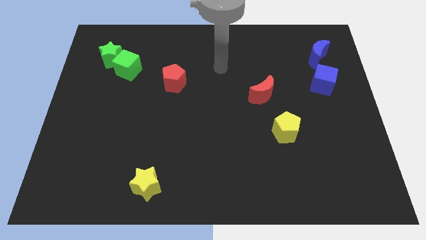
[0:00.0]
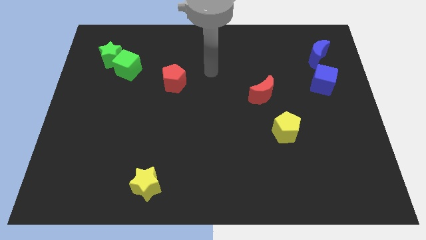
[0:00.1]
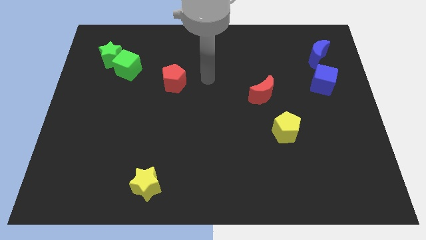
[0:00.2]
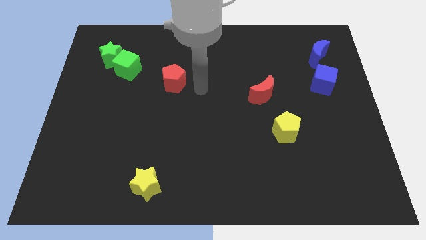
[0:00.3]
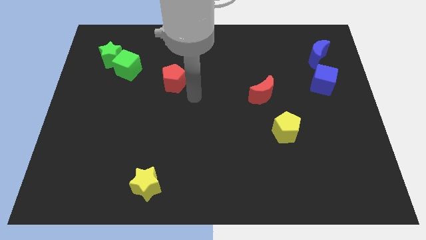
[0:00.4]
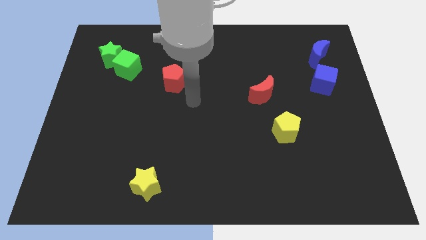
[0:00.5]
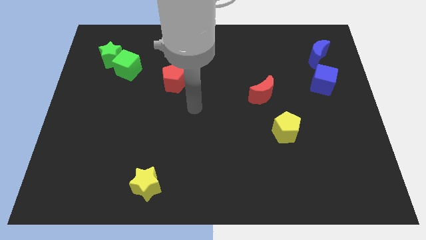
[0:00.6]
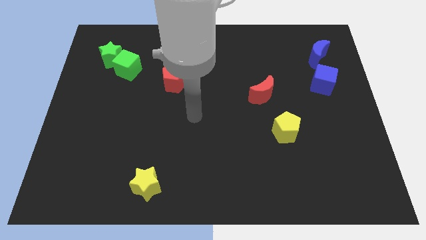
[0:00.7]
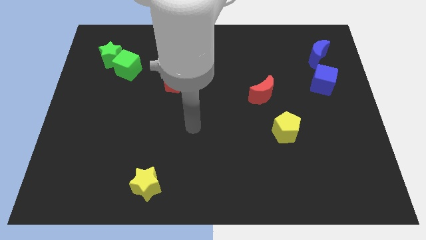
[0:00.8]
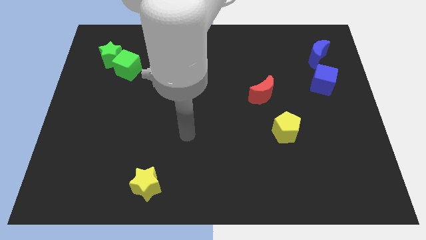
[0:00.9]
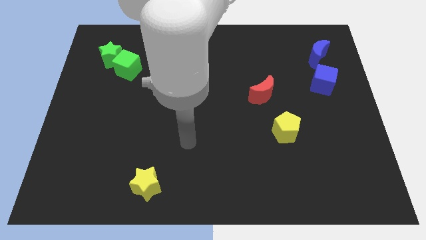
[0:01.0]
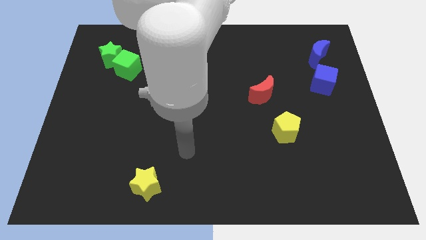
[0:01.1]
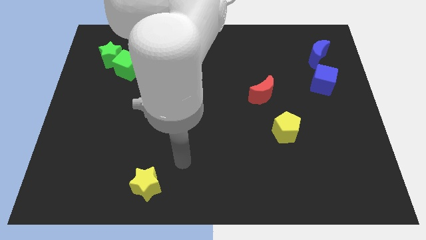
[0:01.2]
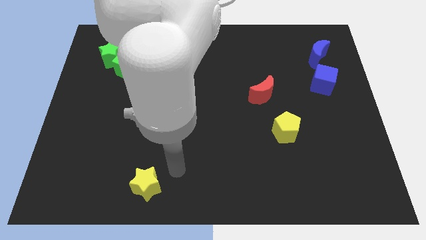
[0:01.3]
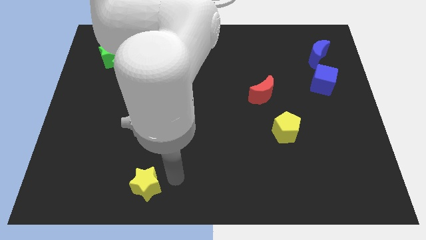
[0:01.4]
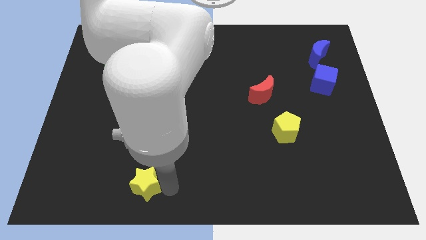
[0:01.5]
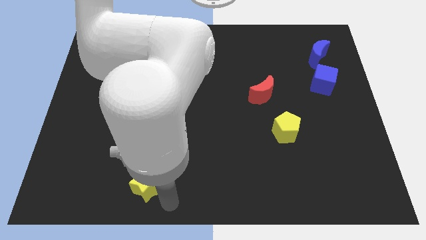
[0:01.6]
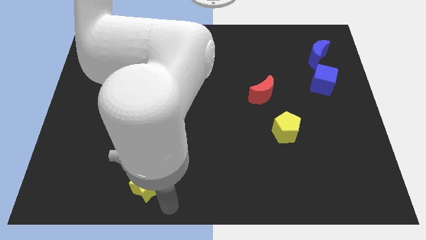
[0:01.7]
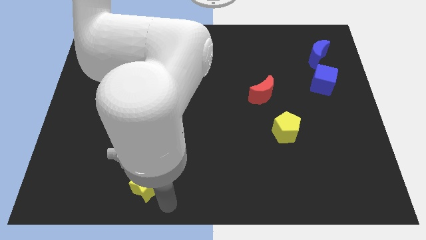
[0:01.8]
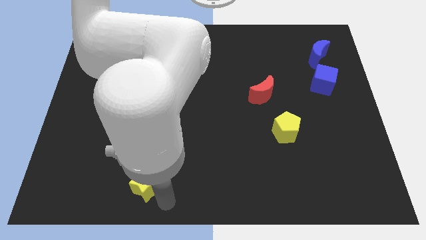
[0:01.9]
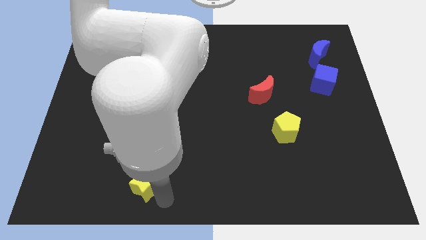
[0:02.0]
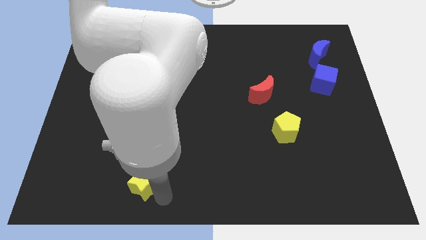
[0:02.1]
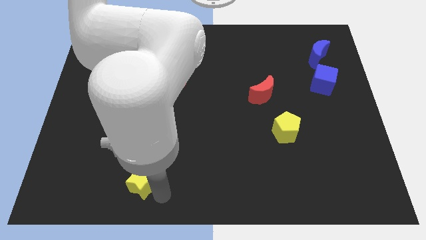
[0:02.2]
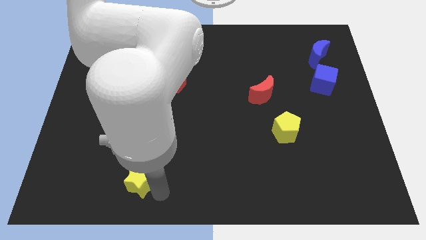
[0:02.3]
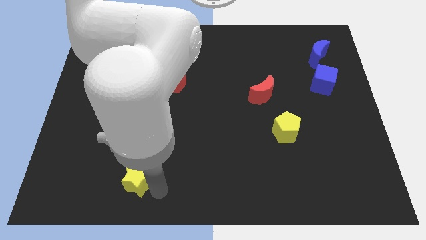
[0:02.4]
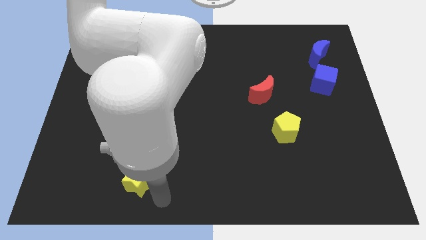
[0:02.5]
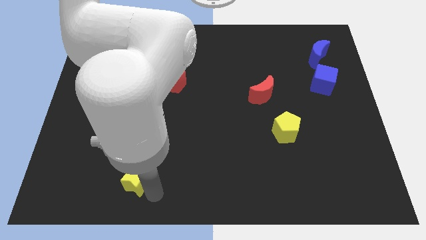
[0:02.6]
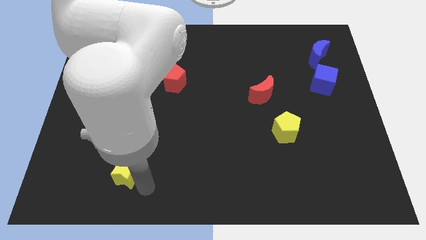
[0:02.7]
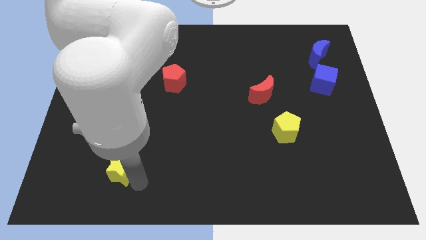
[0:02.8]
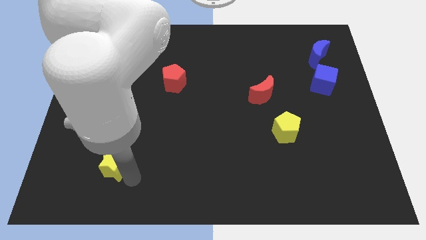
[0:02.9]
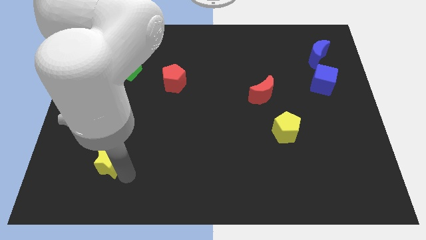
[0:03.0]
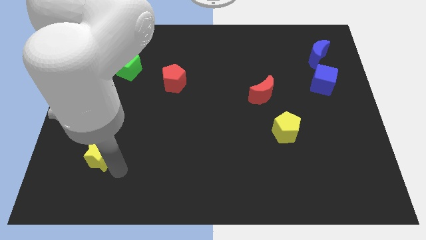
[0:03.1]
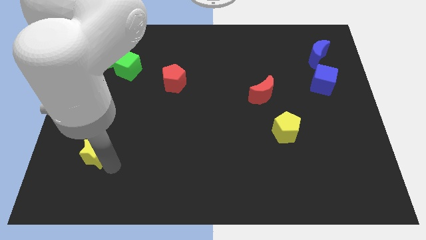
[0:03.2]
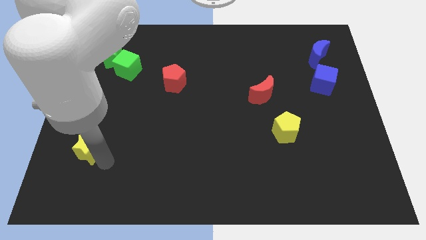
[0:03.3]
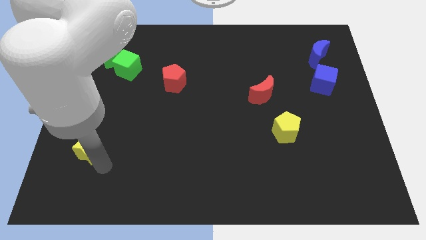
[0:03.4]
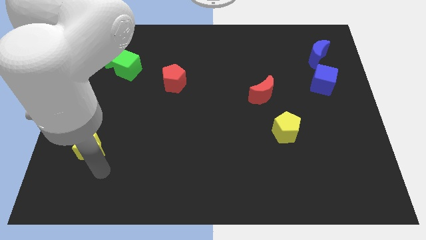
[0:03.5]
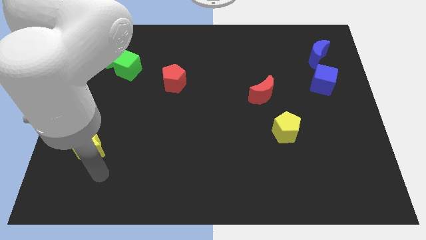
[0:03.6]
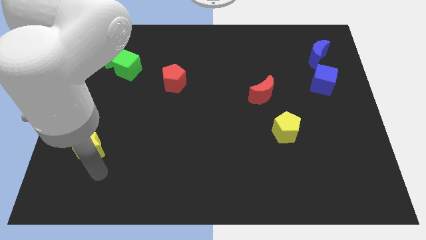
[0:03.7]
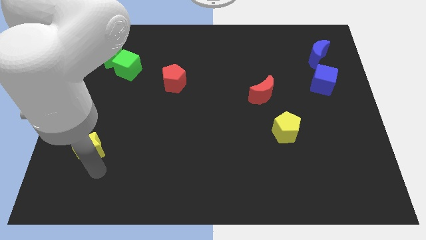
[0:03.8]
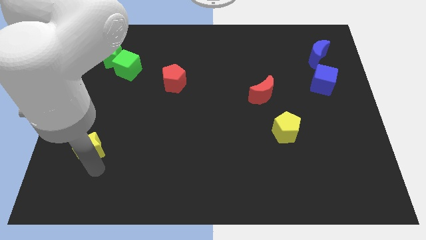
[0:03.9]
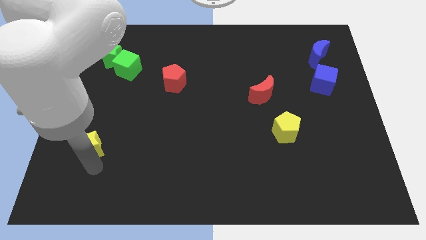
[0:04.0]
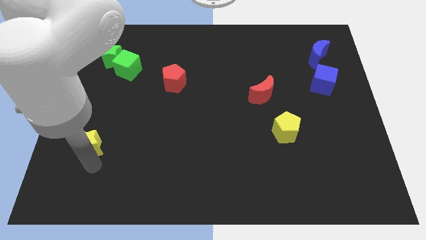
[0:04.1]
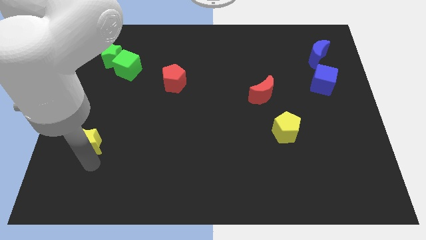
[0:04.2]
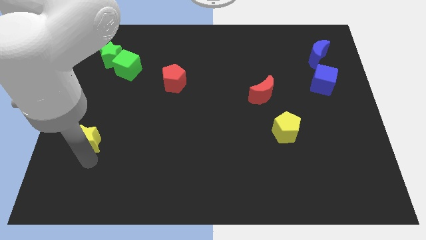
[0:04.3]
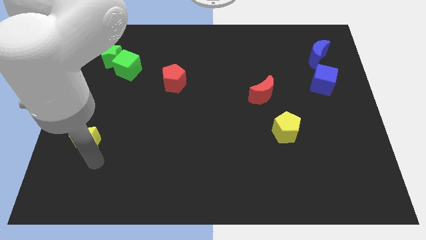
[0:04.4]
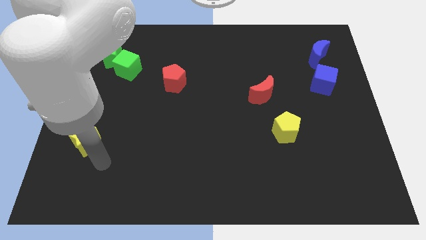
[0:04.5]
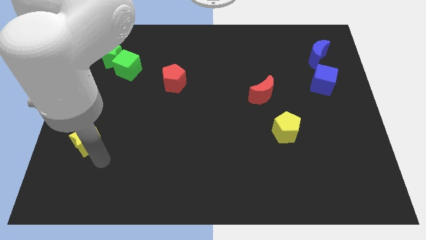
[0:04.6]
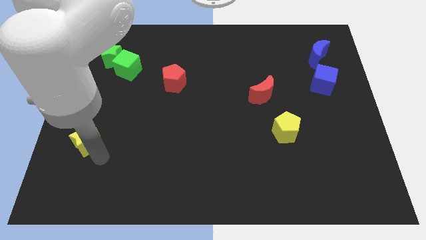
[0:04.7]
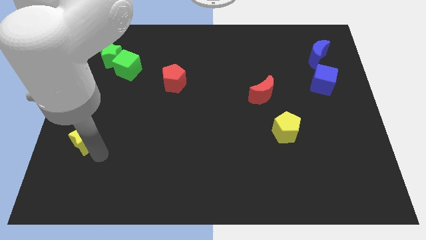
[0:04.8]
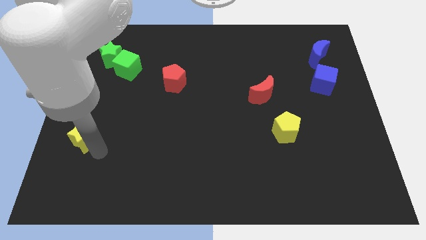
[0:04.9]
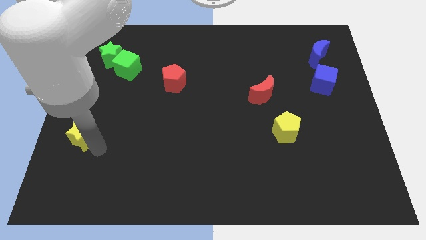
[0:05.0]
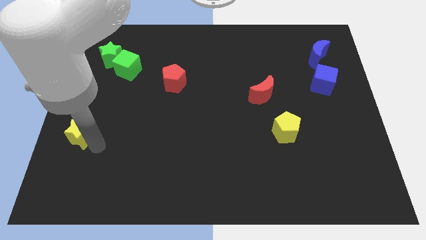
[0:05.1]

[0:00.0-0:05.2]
push the yellow star to the left side
